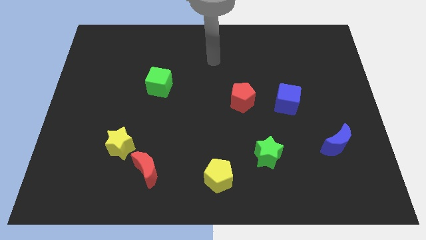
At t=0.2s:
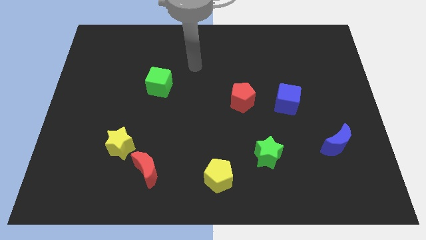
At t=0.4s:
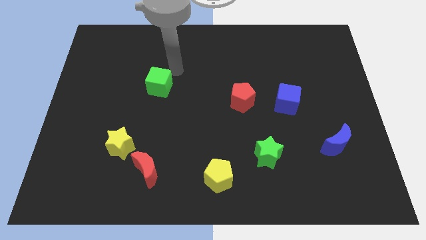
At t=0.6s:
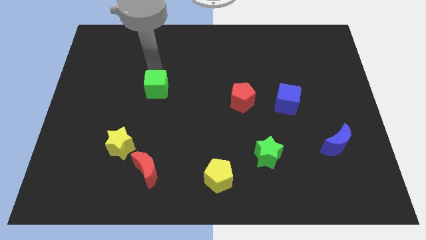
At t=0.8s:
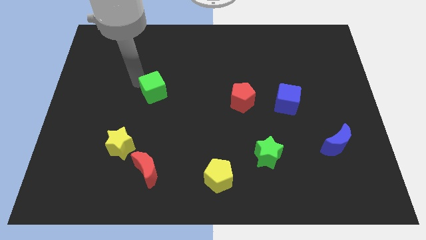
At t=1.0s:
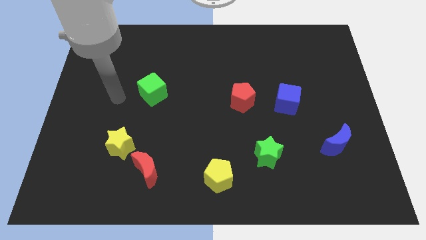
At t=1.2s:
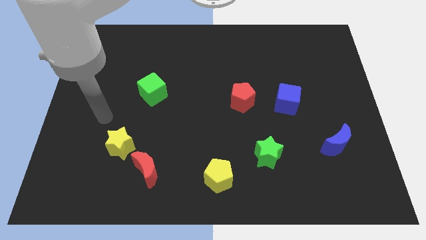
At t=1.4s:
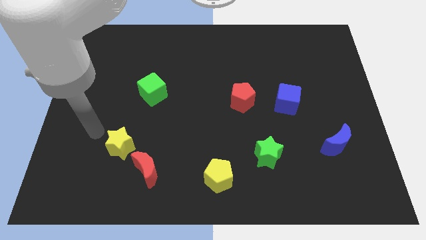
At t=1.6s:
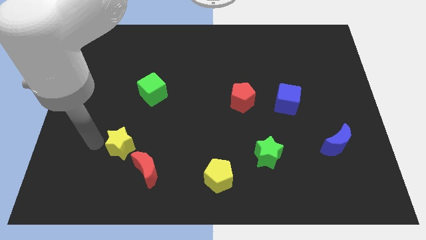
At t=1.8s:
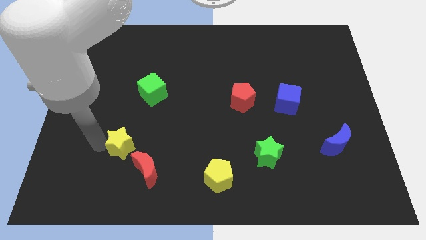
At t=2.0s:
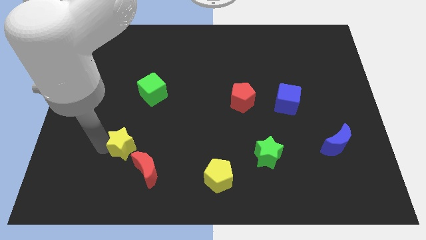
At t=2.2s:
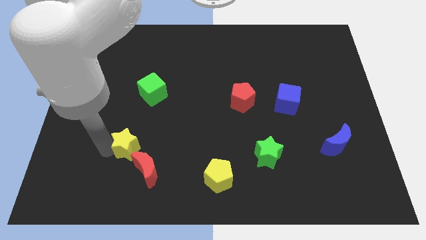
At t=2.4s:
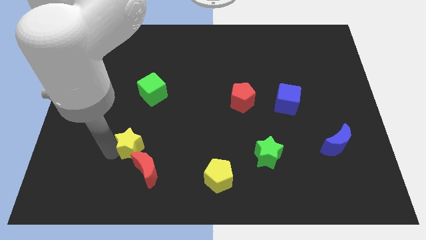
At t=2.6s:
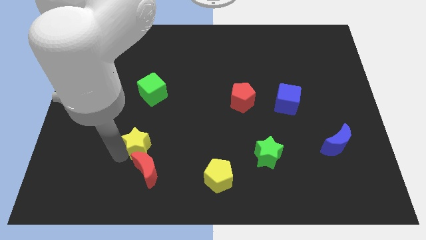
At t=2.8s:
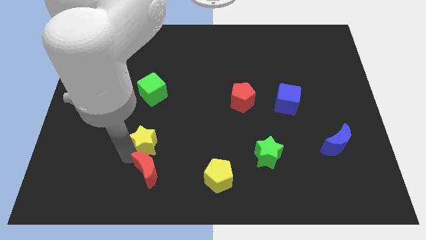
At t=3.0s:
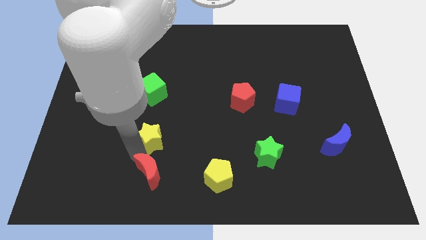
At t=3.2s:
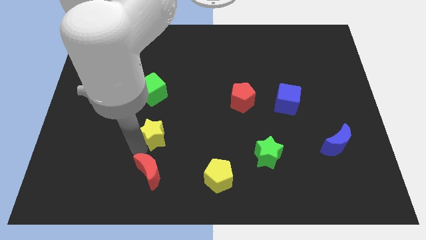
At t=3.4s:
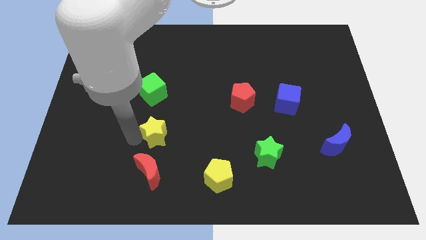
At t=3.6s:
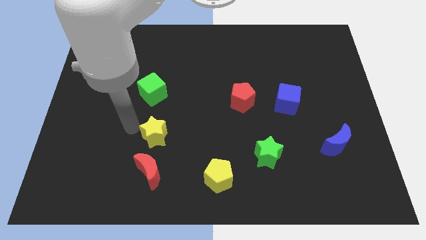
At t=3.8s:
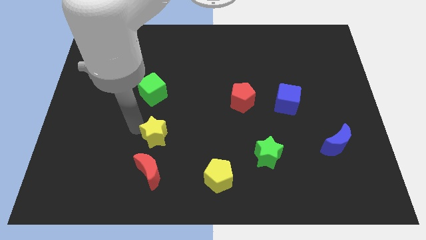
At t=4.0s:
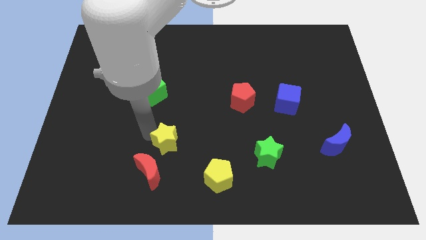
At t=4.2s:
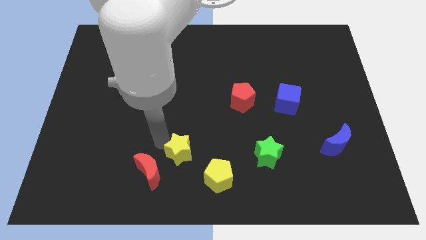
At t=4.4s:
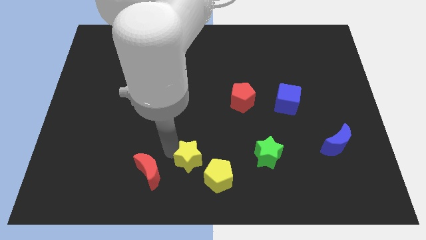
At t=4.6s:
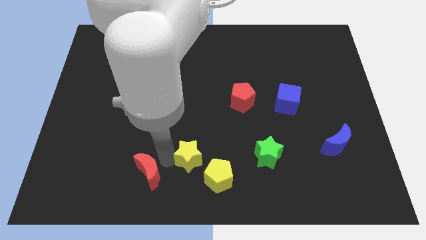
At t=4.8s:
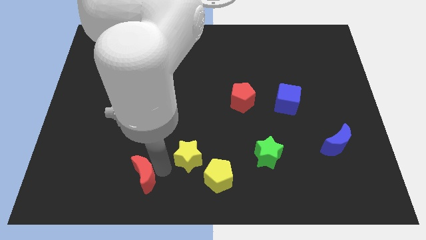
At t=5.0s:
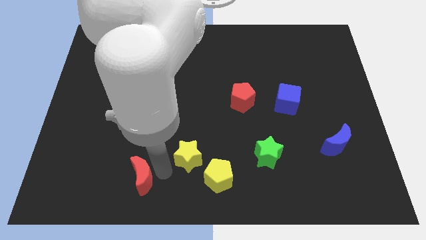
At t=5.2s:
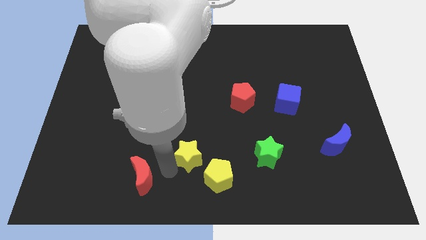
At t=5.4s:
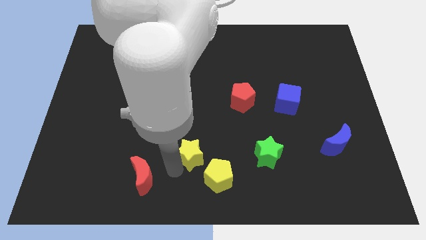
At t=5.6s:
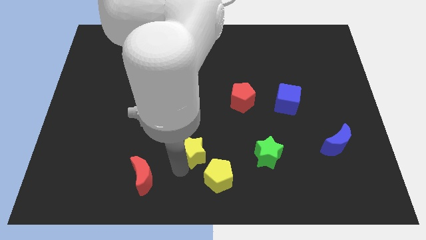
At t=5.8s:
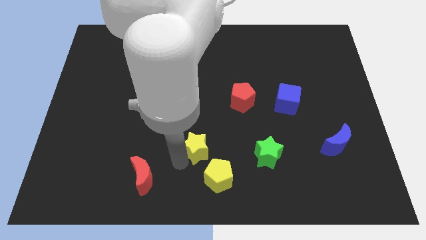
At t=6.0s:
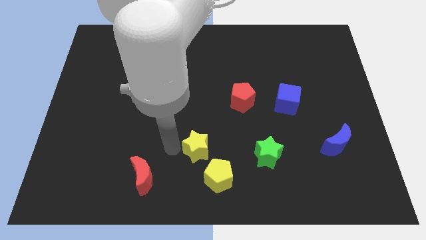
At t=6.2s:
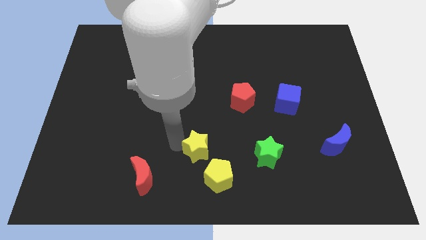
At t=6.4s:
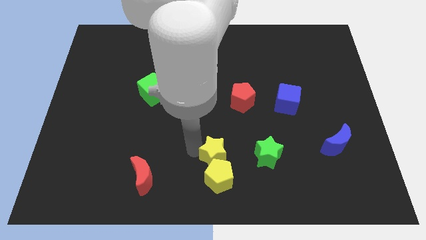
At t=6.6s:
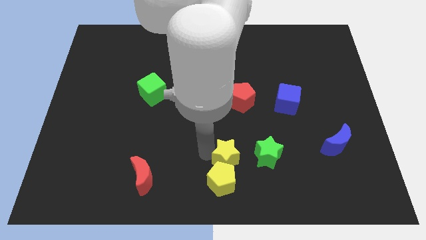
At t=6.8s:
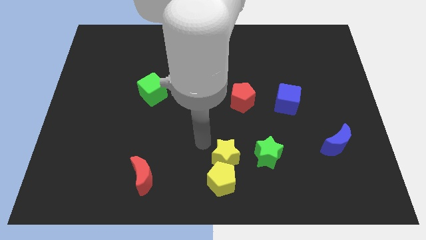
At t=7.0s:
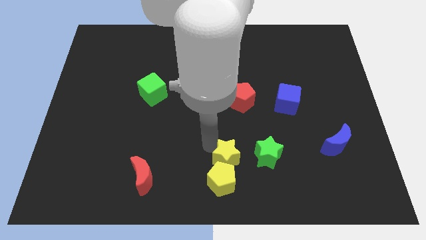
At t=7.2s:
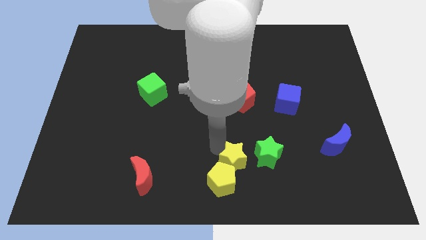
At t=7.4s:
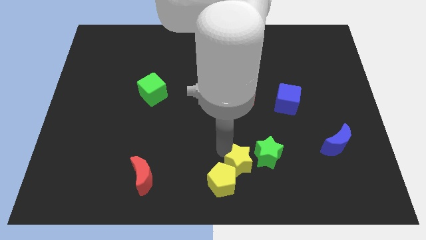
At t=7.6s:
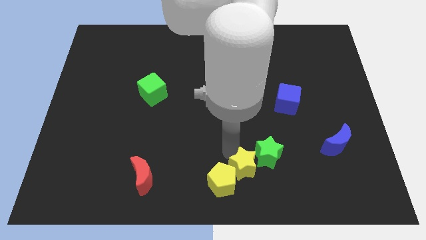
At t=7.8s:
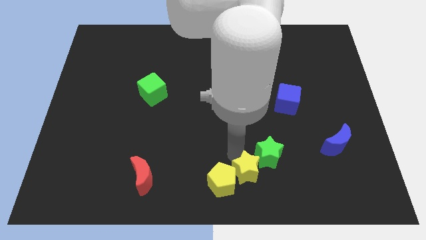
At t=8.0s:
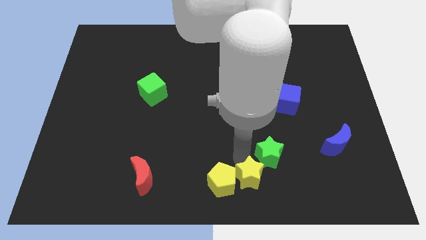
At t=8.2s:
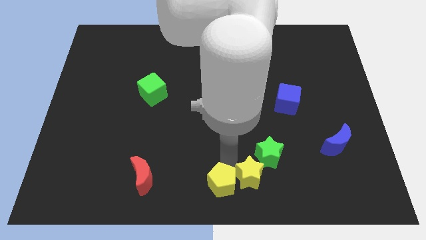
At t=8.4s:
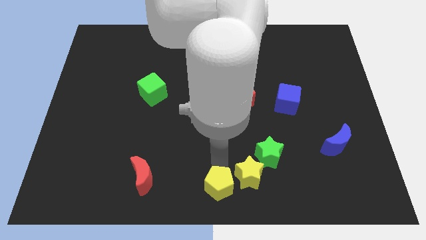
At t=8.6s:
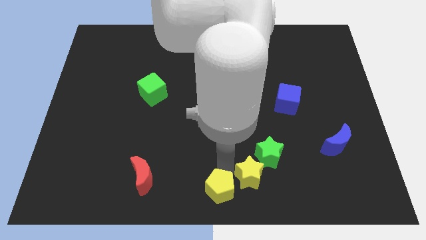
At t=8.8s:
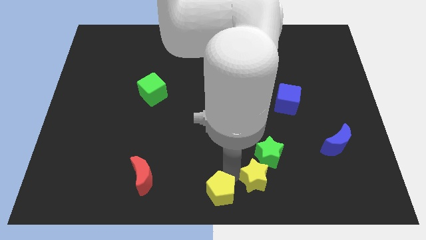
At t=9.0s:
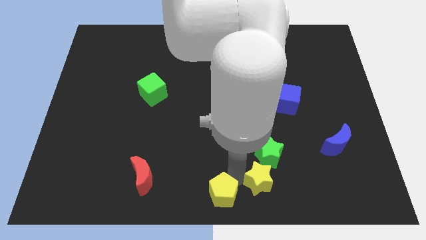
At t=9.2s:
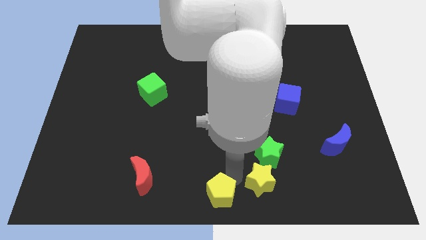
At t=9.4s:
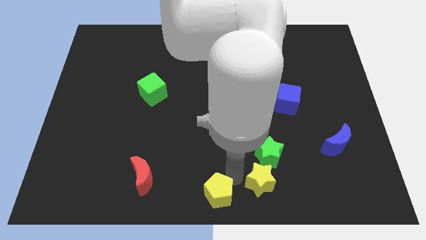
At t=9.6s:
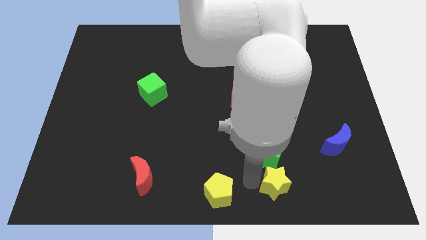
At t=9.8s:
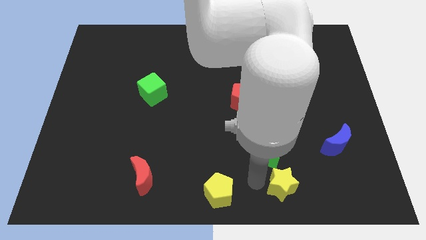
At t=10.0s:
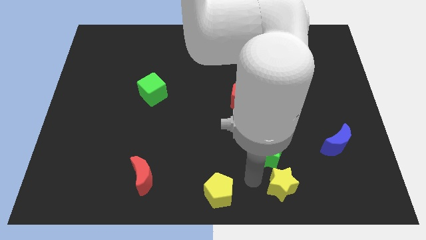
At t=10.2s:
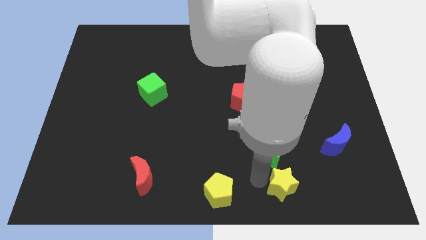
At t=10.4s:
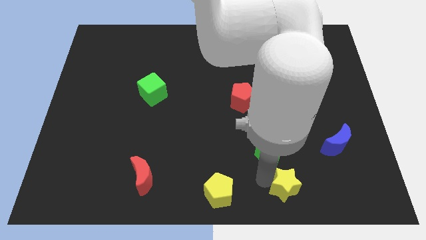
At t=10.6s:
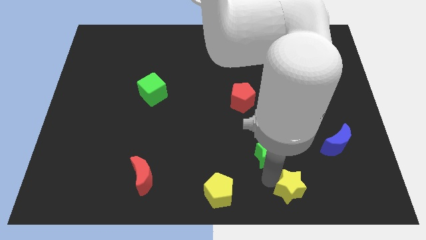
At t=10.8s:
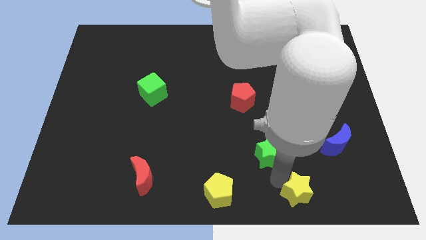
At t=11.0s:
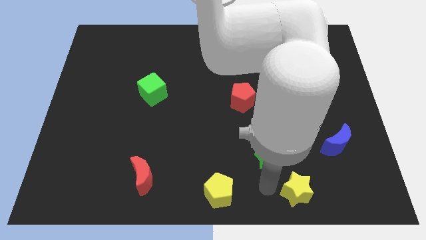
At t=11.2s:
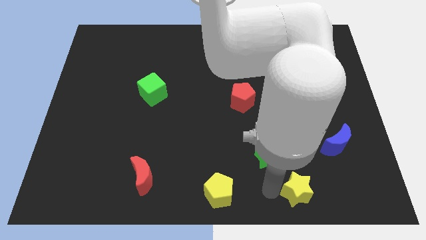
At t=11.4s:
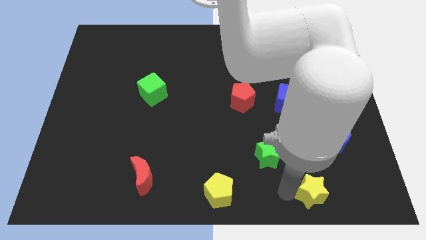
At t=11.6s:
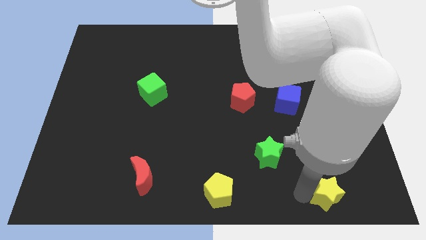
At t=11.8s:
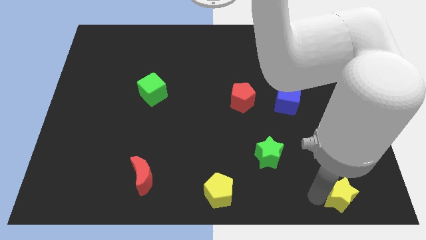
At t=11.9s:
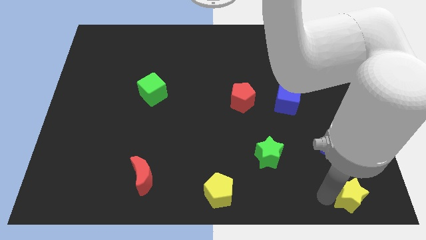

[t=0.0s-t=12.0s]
put the yellow star to the bottom right of the board
